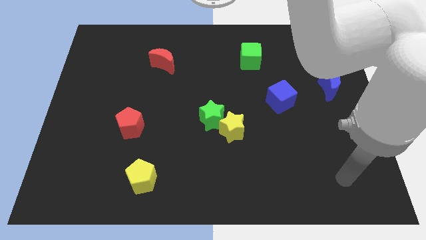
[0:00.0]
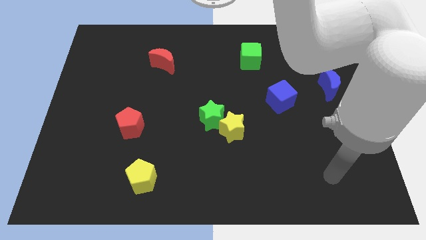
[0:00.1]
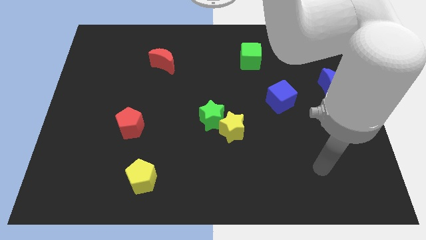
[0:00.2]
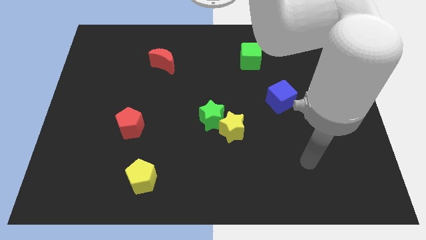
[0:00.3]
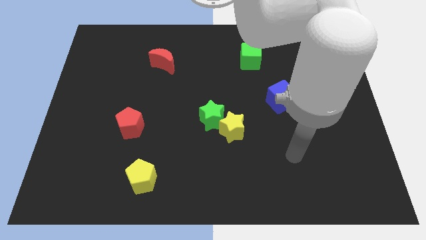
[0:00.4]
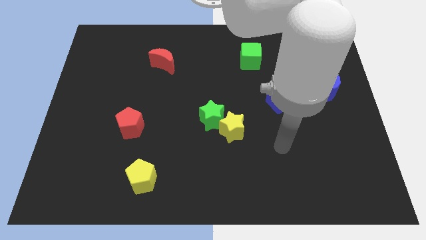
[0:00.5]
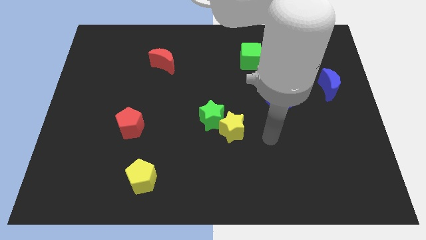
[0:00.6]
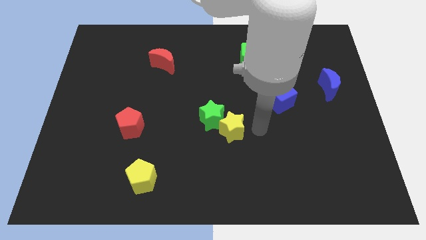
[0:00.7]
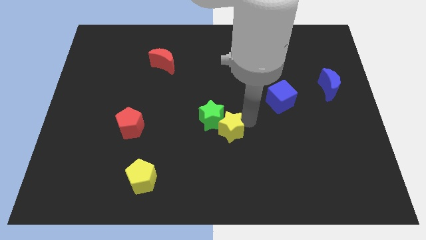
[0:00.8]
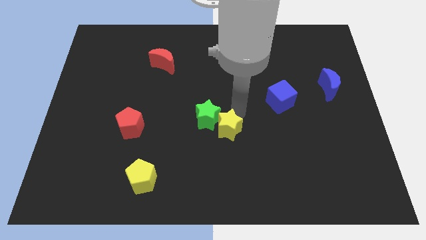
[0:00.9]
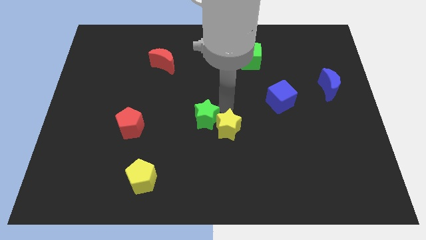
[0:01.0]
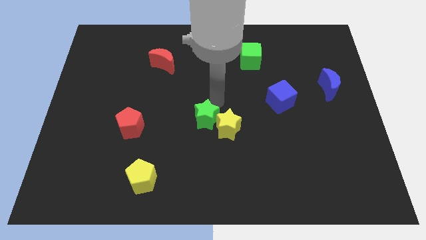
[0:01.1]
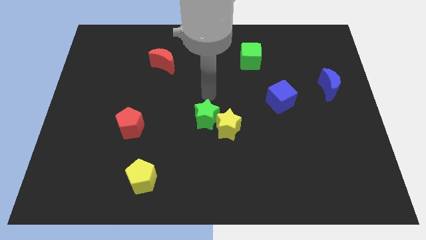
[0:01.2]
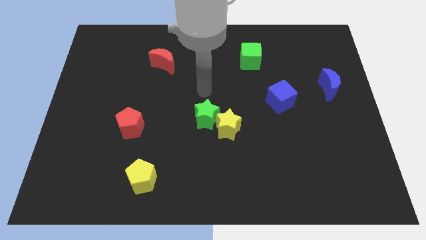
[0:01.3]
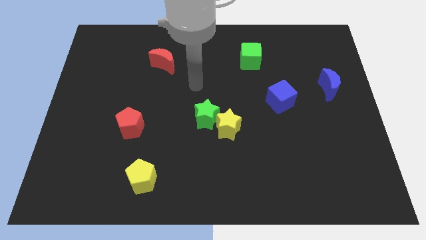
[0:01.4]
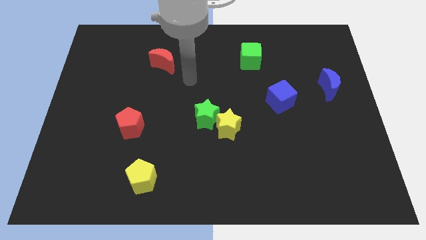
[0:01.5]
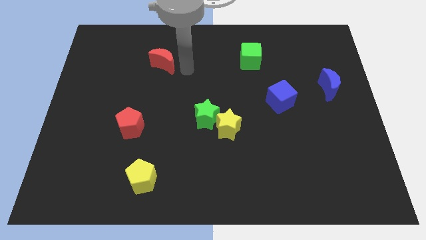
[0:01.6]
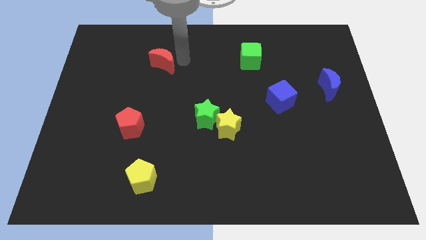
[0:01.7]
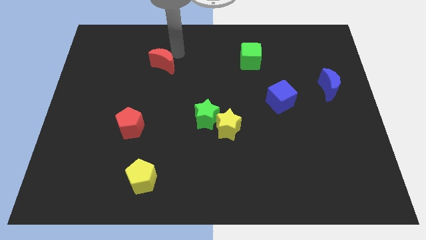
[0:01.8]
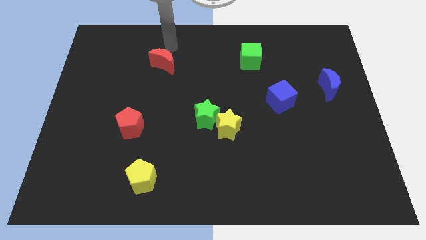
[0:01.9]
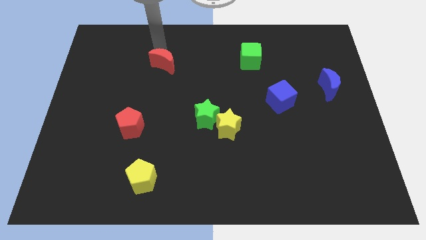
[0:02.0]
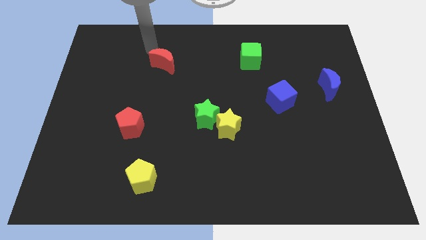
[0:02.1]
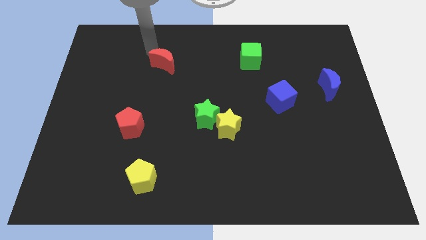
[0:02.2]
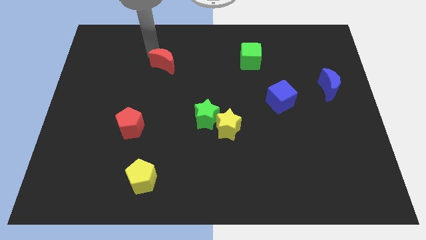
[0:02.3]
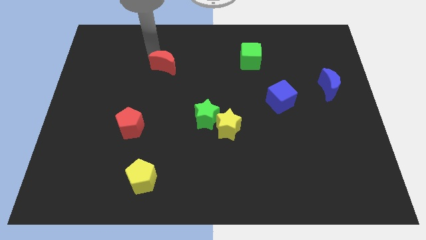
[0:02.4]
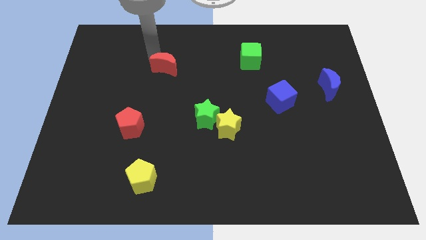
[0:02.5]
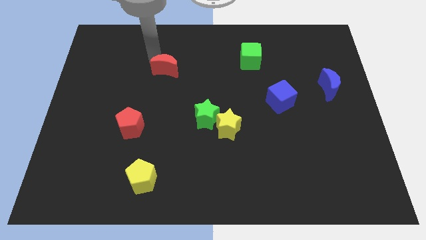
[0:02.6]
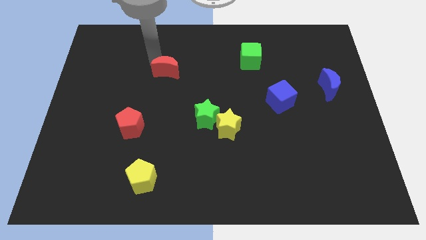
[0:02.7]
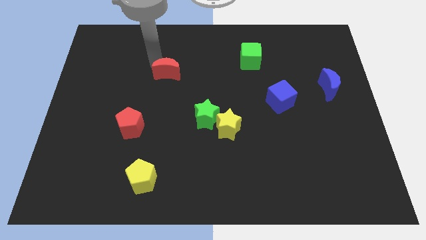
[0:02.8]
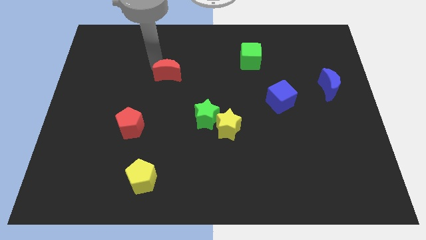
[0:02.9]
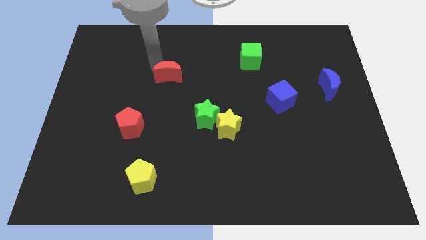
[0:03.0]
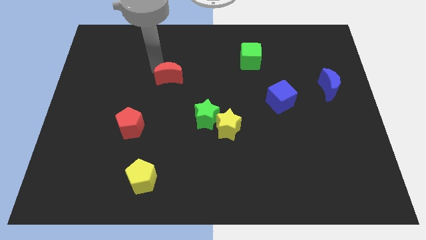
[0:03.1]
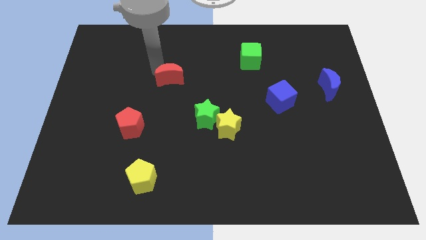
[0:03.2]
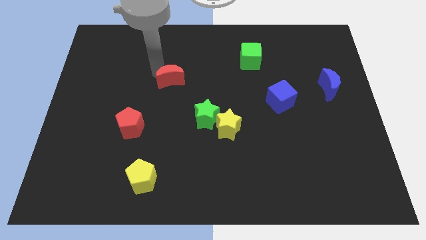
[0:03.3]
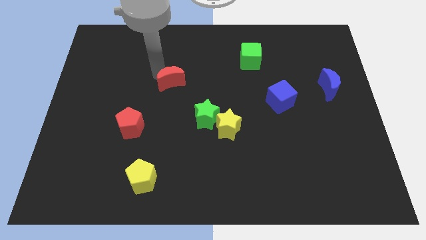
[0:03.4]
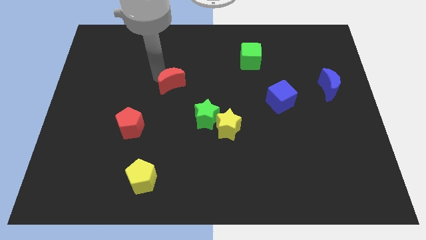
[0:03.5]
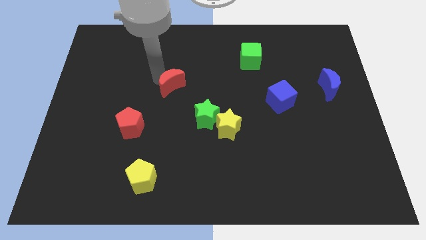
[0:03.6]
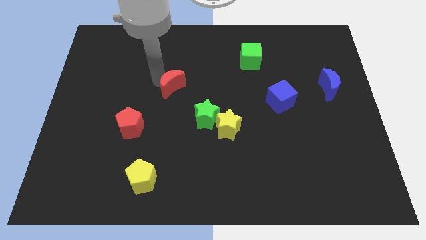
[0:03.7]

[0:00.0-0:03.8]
push the red moon diagonally downwards and right a little bit

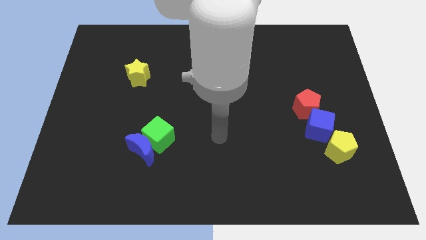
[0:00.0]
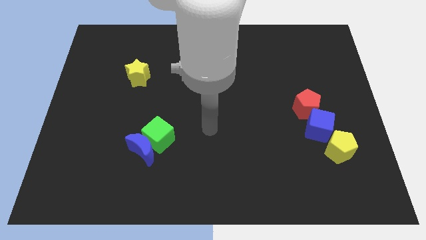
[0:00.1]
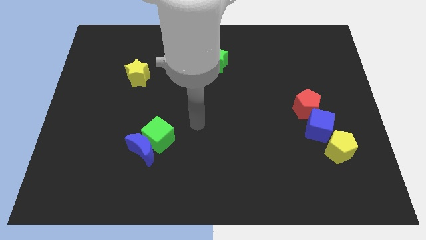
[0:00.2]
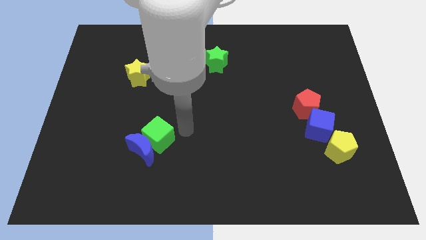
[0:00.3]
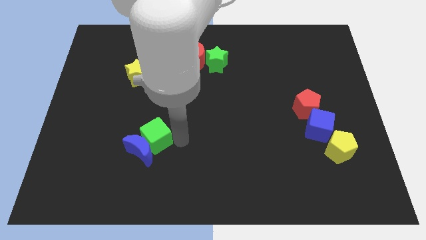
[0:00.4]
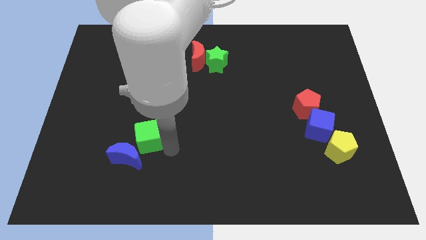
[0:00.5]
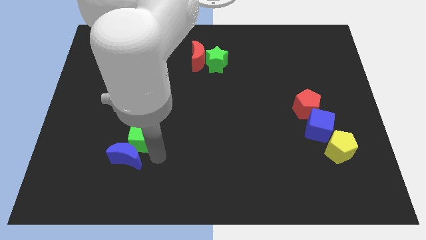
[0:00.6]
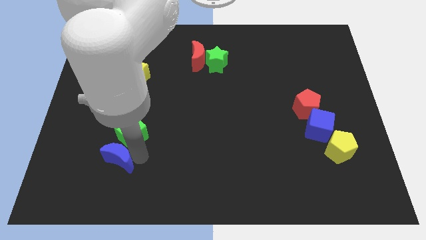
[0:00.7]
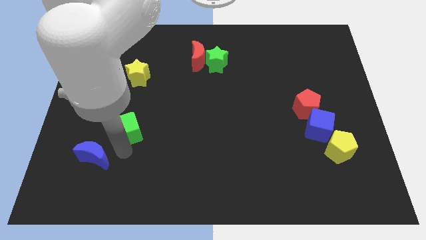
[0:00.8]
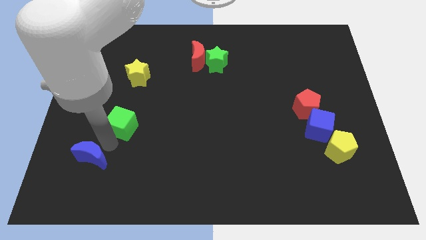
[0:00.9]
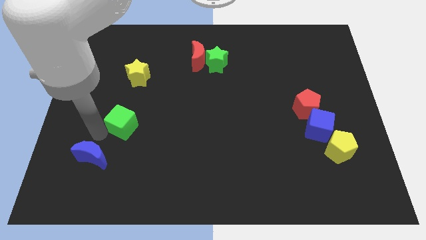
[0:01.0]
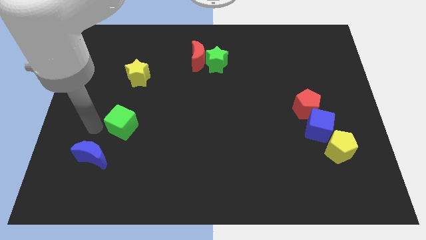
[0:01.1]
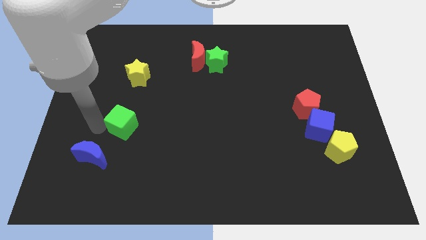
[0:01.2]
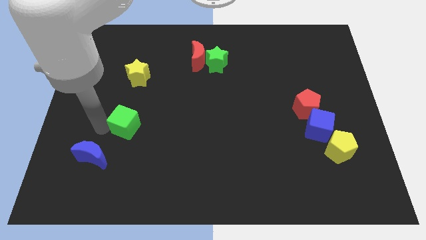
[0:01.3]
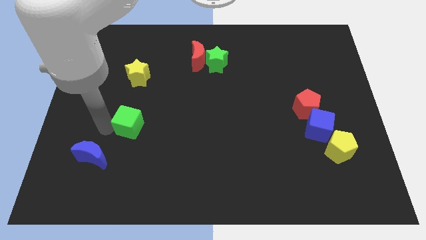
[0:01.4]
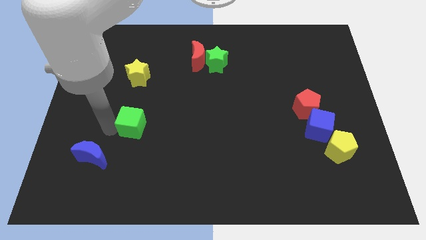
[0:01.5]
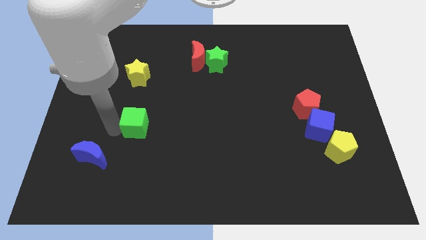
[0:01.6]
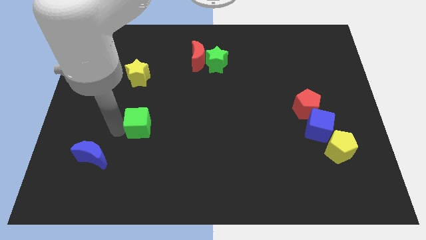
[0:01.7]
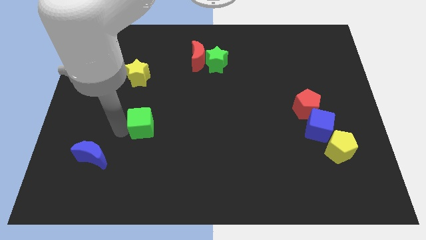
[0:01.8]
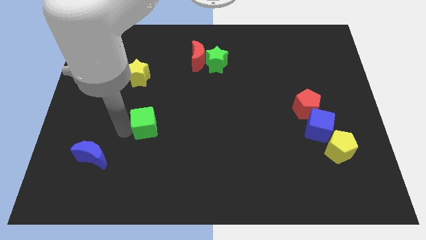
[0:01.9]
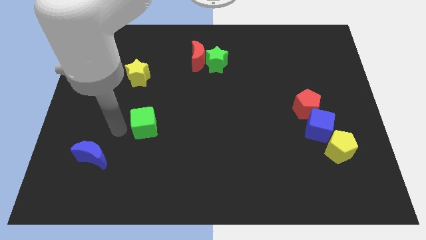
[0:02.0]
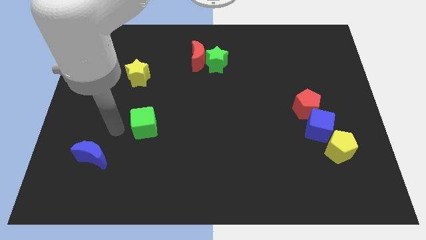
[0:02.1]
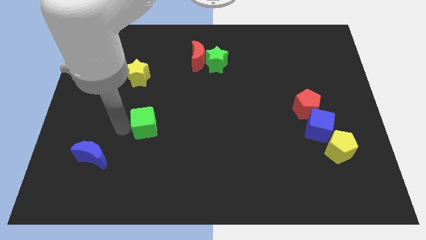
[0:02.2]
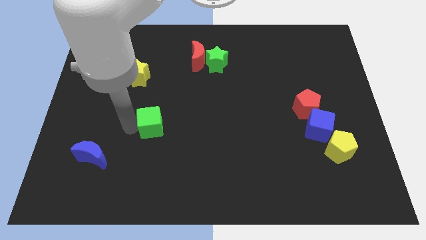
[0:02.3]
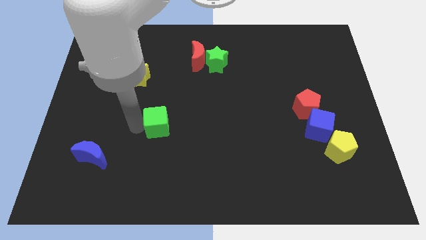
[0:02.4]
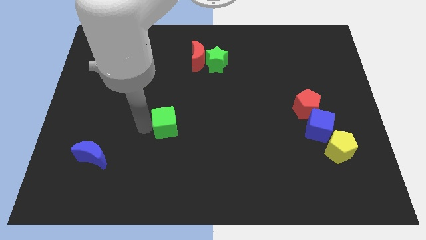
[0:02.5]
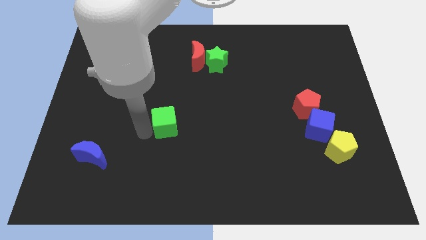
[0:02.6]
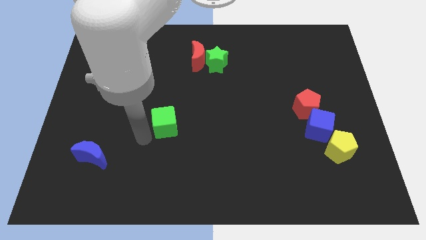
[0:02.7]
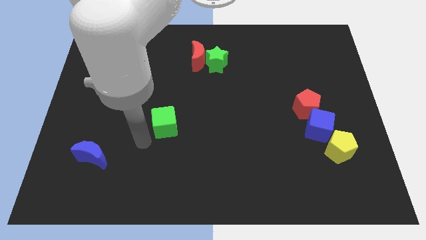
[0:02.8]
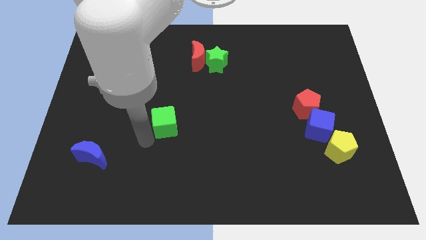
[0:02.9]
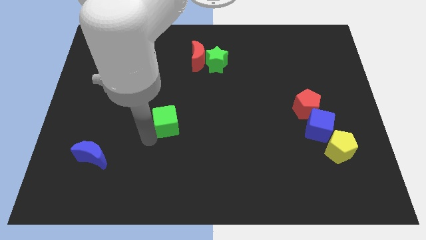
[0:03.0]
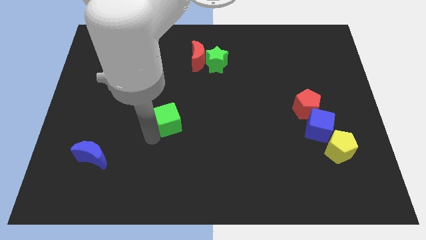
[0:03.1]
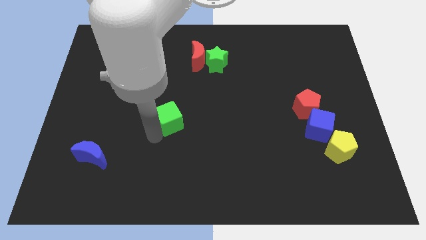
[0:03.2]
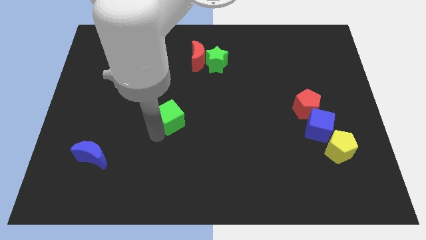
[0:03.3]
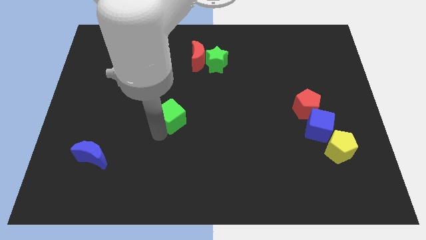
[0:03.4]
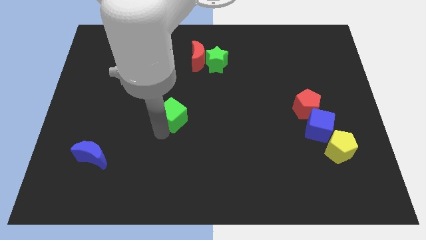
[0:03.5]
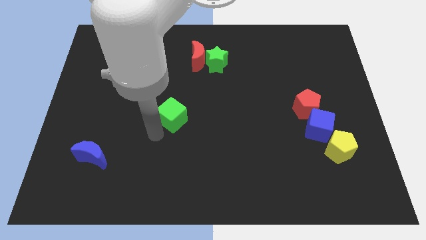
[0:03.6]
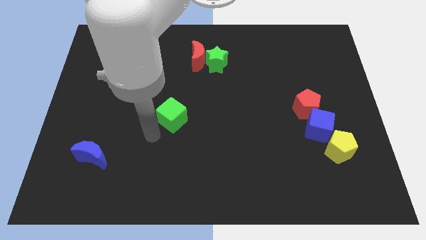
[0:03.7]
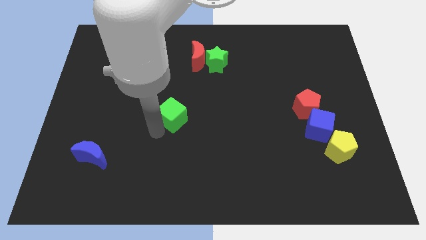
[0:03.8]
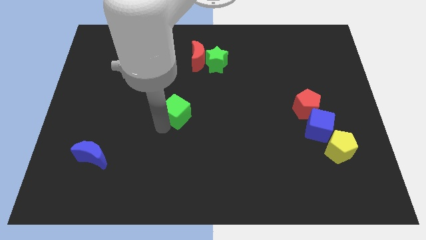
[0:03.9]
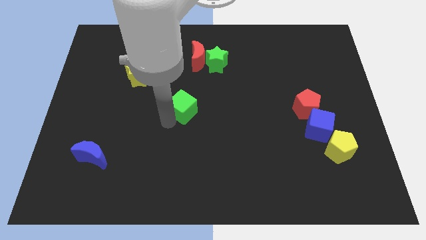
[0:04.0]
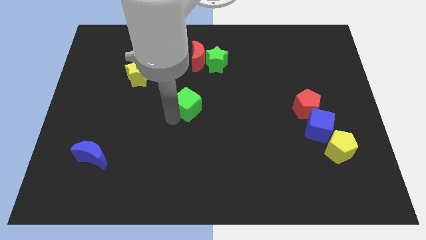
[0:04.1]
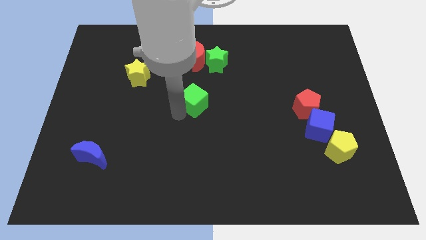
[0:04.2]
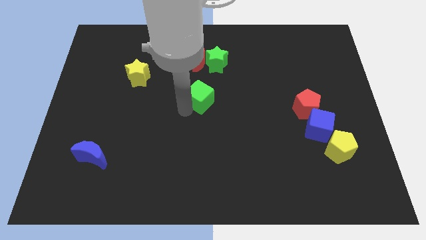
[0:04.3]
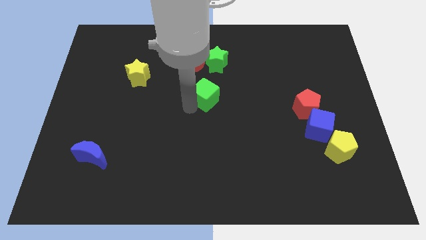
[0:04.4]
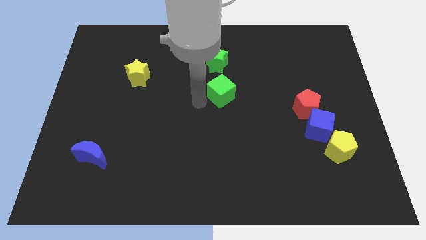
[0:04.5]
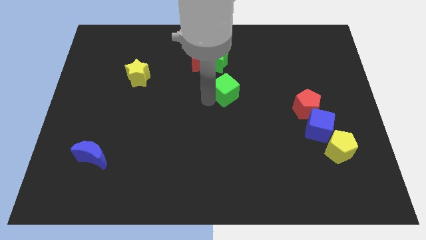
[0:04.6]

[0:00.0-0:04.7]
move the green cube upwards and to the right diagonally
